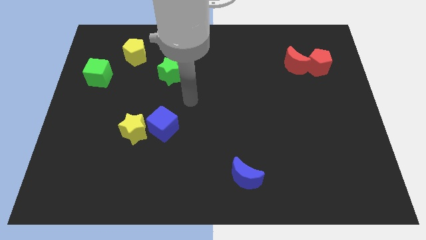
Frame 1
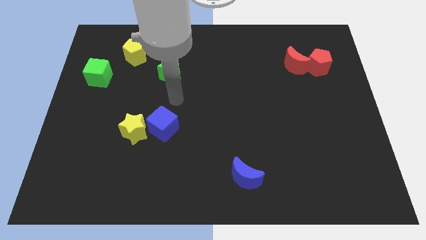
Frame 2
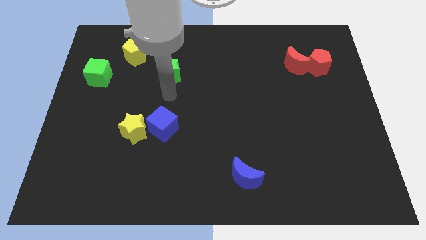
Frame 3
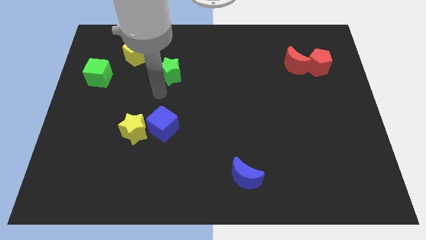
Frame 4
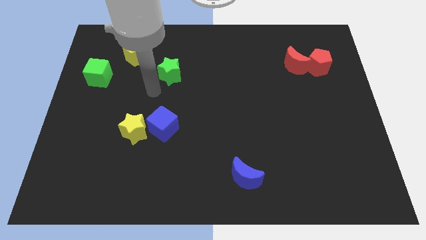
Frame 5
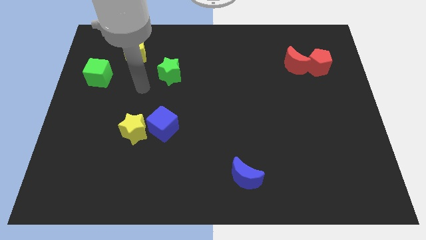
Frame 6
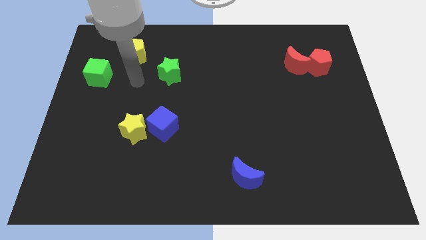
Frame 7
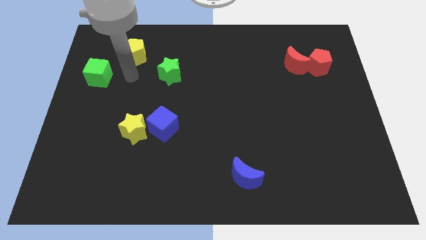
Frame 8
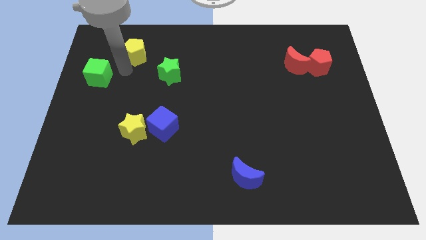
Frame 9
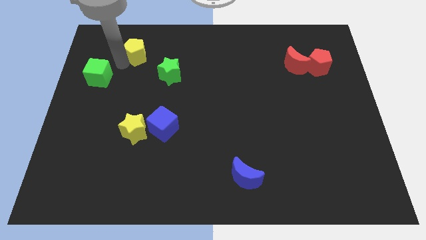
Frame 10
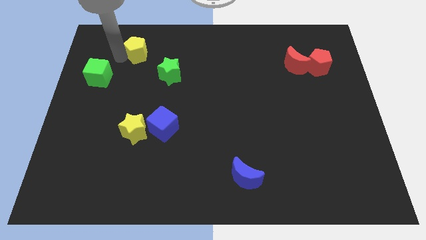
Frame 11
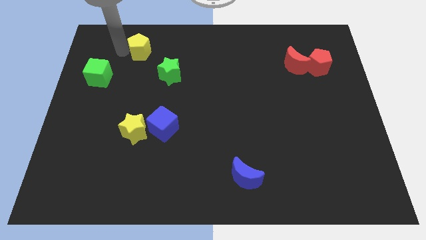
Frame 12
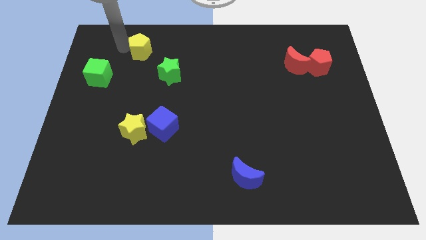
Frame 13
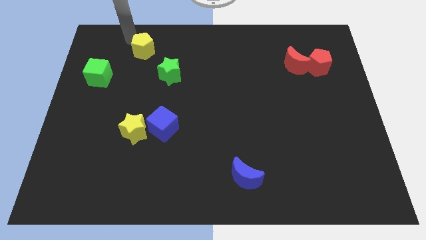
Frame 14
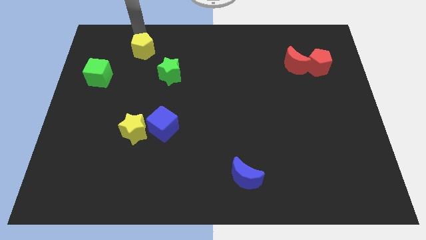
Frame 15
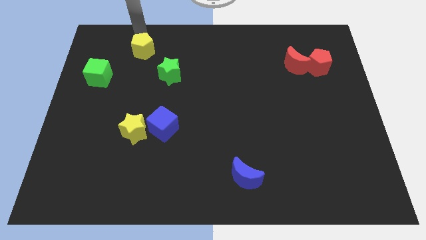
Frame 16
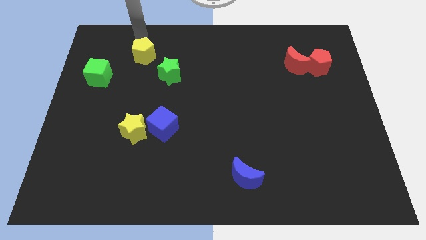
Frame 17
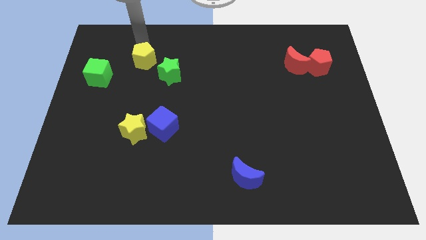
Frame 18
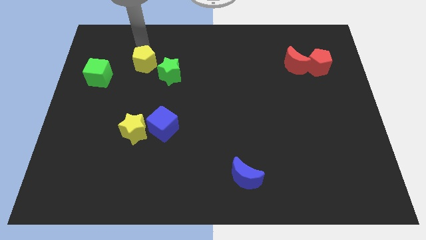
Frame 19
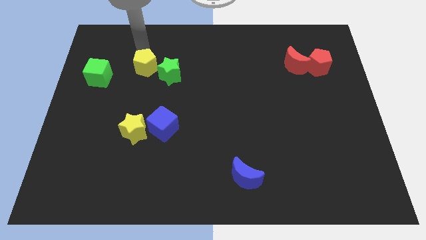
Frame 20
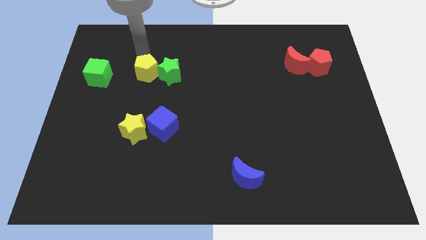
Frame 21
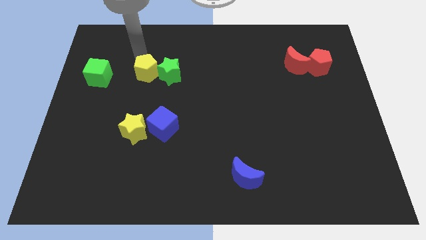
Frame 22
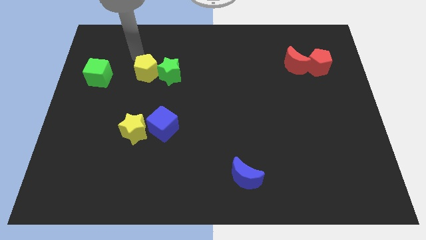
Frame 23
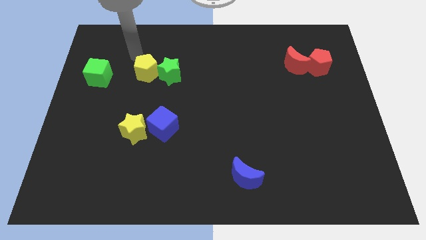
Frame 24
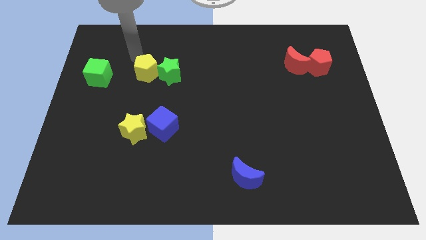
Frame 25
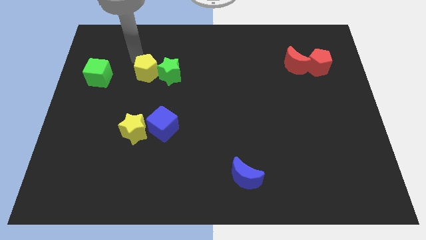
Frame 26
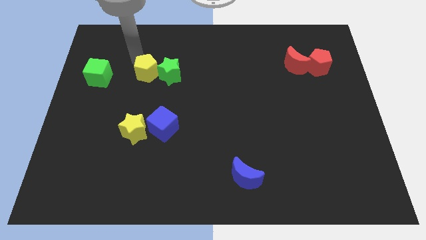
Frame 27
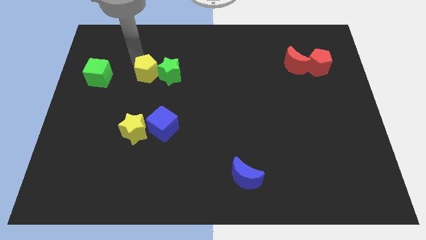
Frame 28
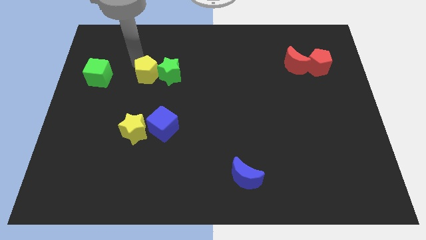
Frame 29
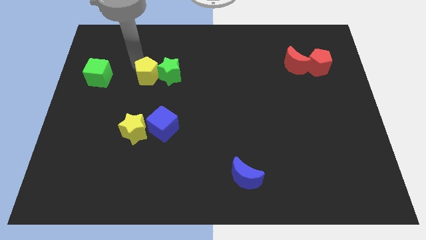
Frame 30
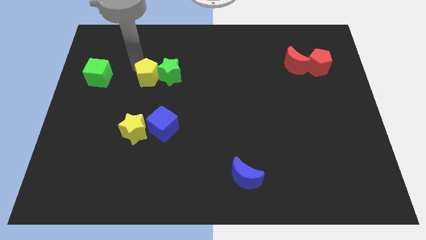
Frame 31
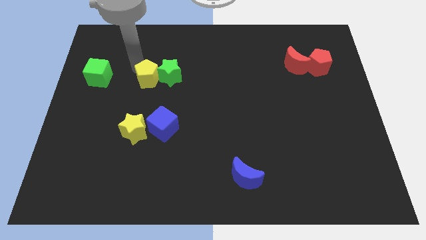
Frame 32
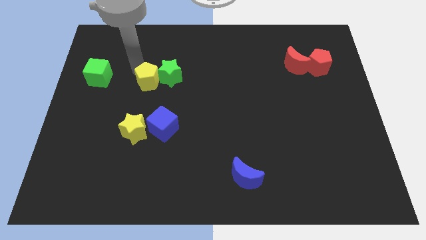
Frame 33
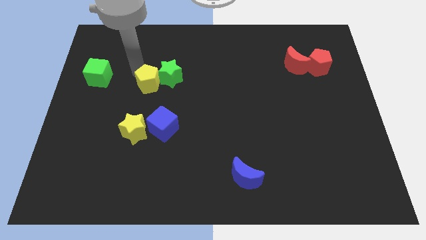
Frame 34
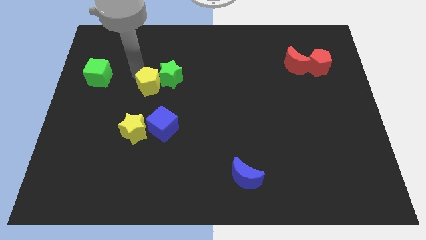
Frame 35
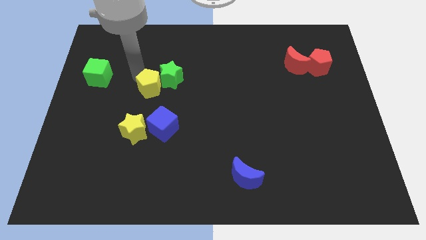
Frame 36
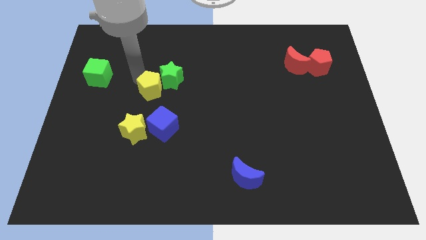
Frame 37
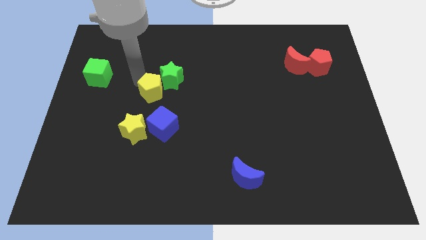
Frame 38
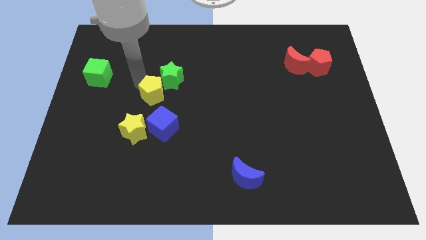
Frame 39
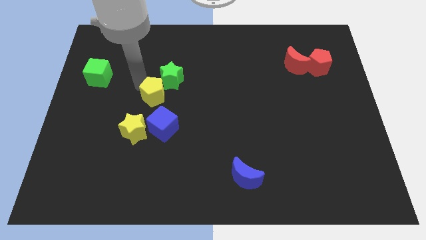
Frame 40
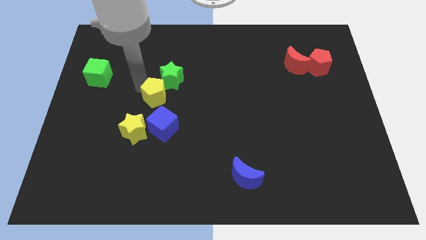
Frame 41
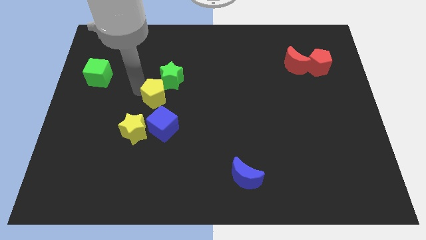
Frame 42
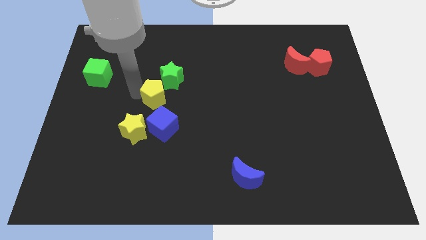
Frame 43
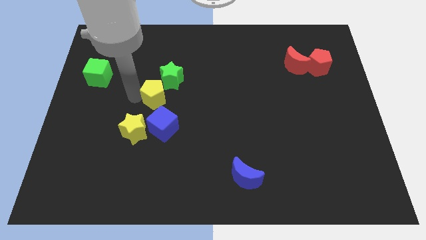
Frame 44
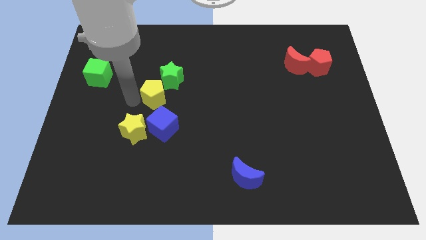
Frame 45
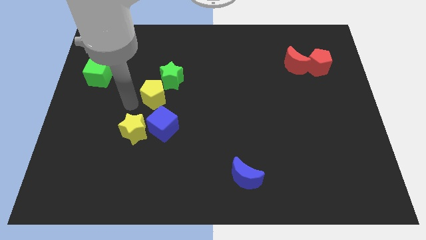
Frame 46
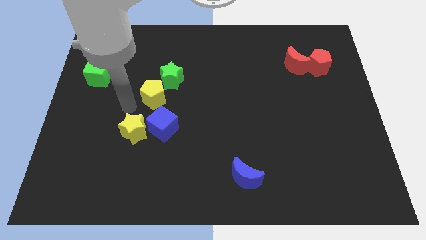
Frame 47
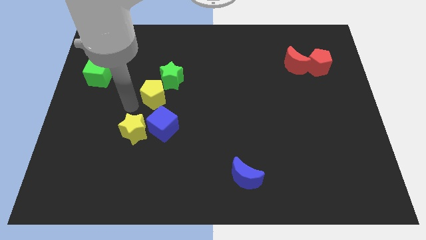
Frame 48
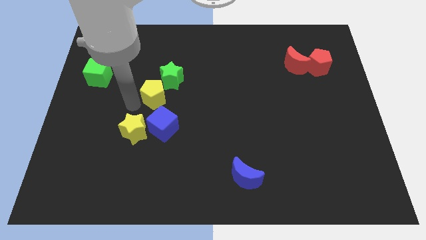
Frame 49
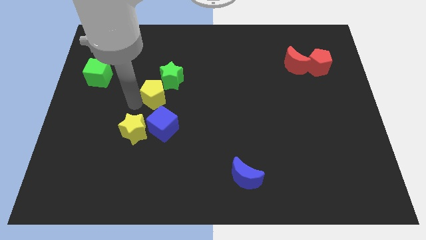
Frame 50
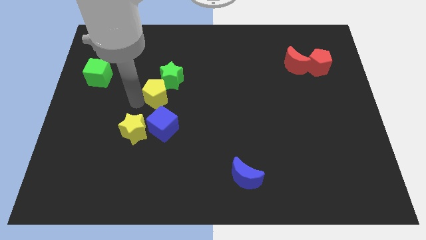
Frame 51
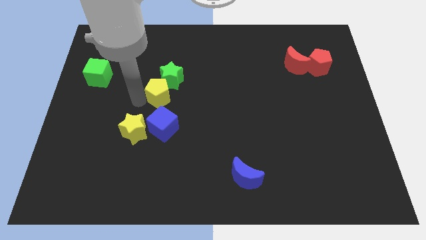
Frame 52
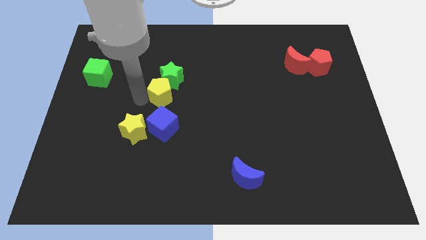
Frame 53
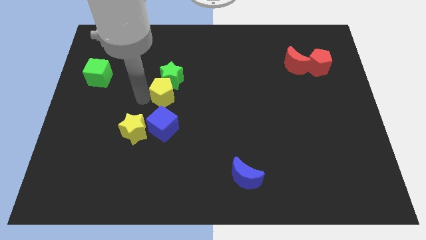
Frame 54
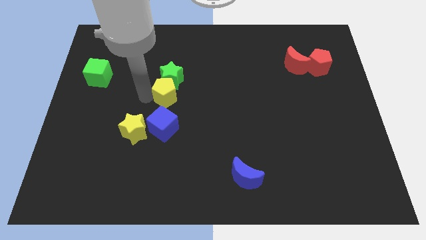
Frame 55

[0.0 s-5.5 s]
move the yellow pentagon to the bottom right side of the green star

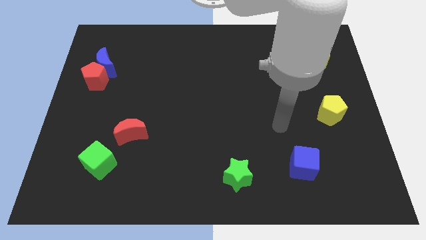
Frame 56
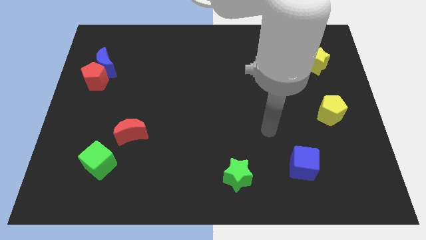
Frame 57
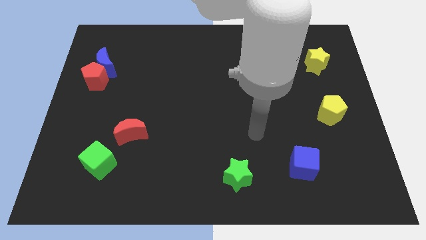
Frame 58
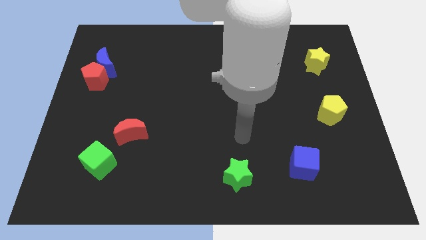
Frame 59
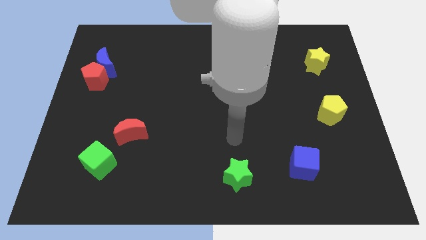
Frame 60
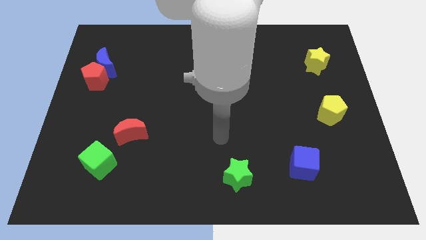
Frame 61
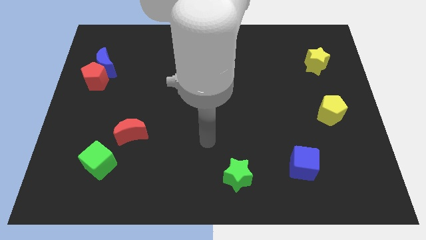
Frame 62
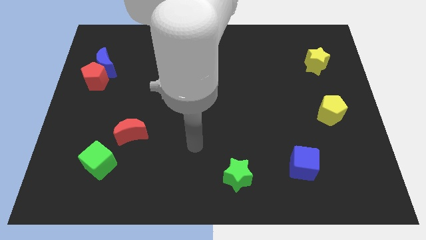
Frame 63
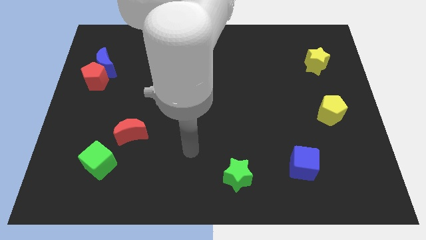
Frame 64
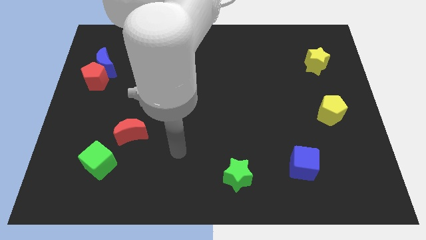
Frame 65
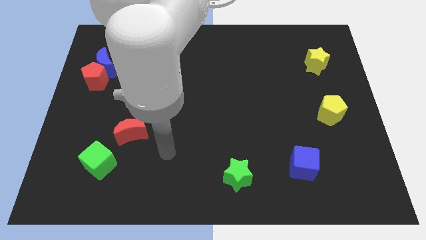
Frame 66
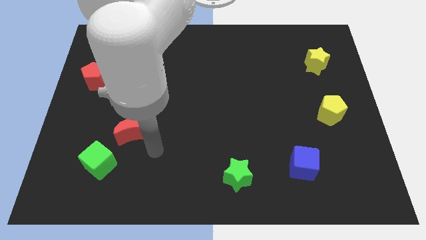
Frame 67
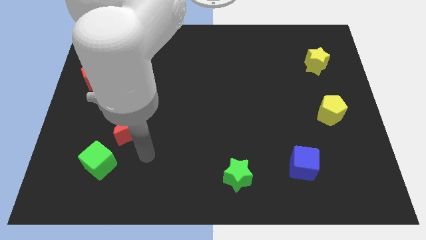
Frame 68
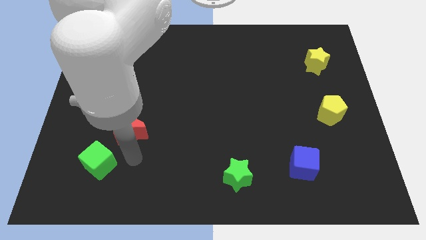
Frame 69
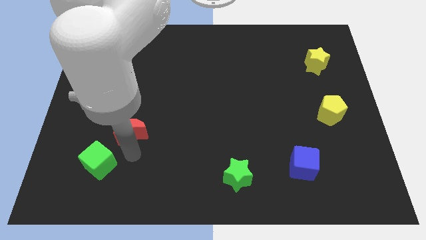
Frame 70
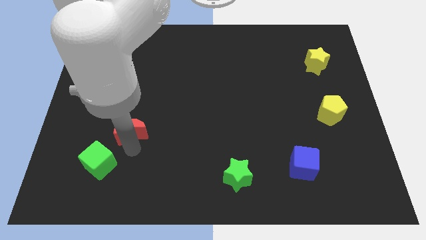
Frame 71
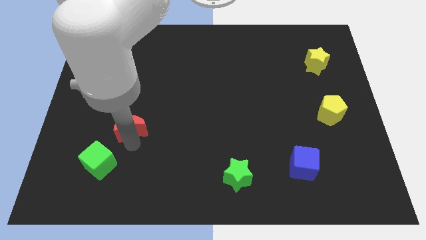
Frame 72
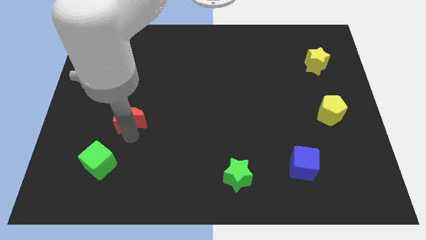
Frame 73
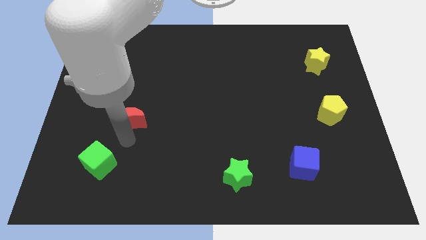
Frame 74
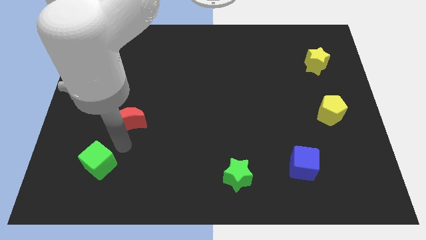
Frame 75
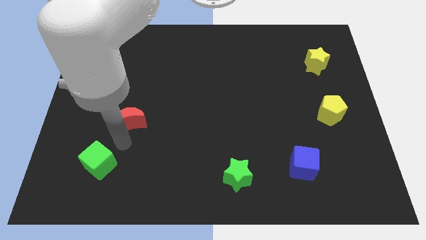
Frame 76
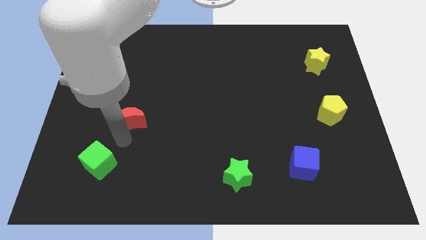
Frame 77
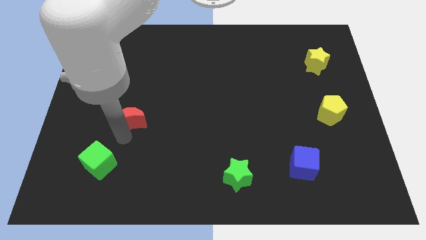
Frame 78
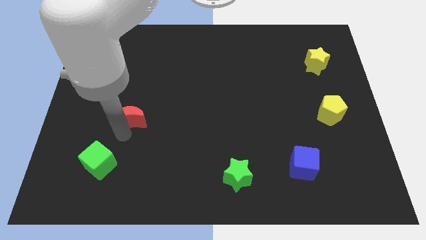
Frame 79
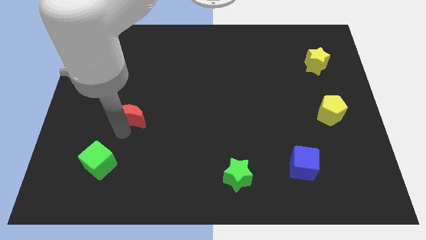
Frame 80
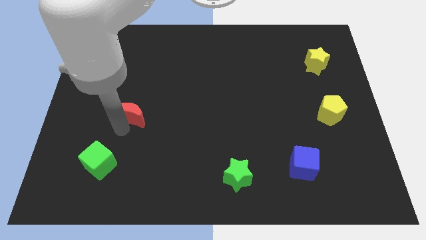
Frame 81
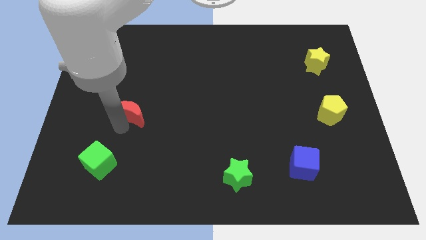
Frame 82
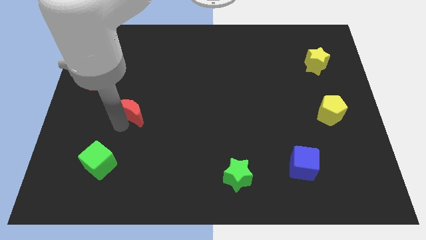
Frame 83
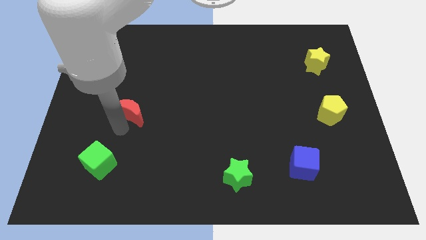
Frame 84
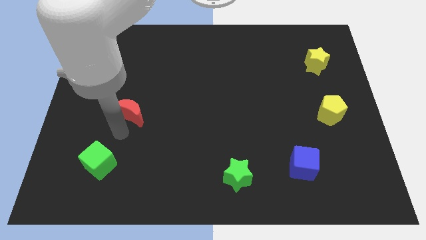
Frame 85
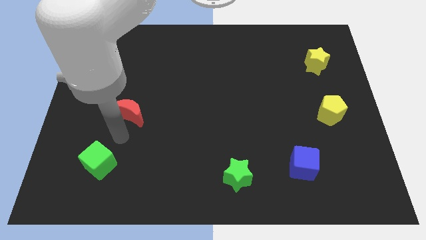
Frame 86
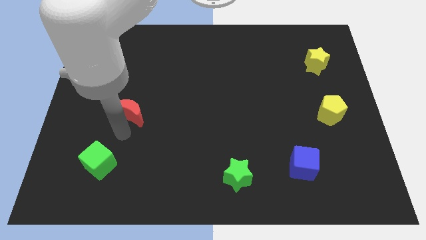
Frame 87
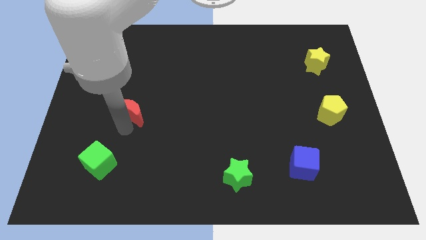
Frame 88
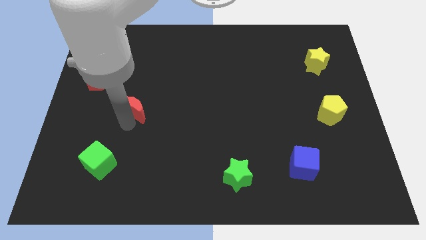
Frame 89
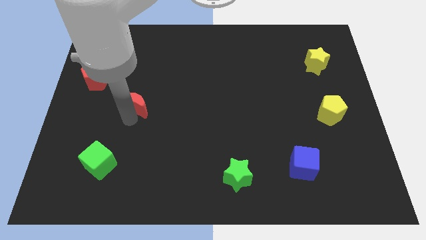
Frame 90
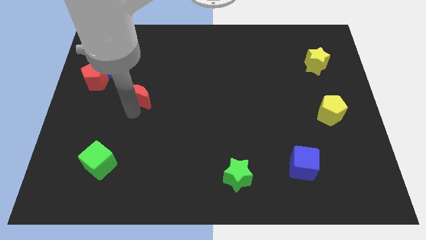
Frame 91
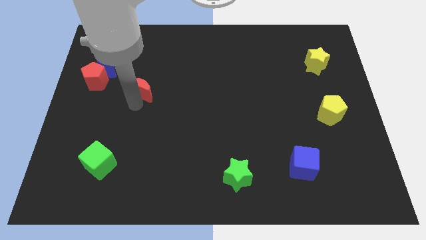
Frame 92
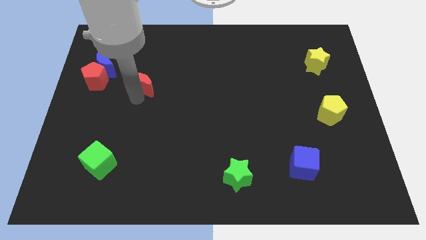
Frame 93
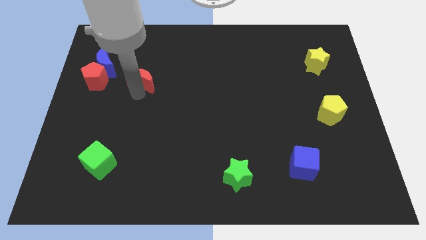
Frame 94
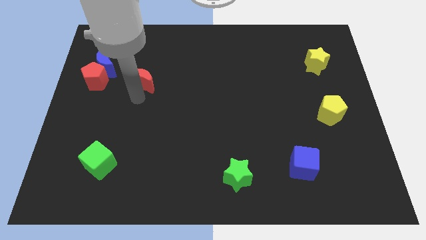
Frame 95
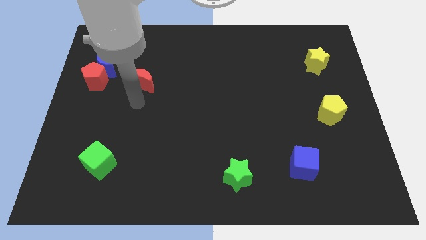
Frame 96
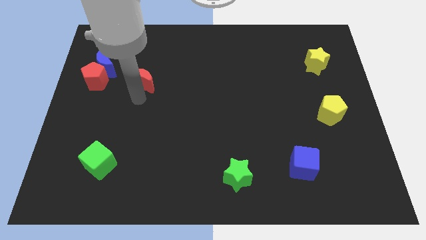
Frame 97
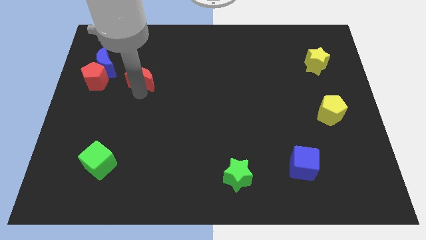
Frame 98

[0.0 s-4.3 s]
put the red moon to the right of the blue moon
